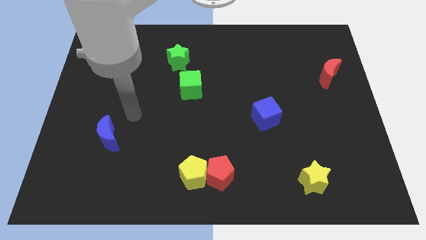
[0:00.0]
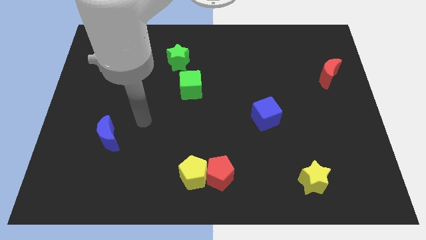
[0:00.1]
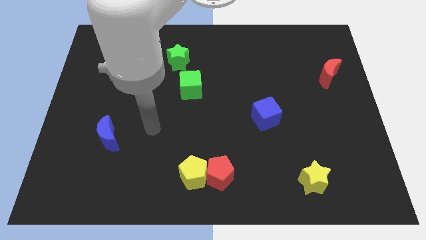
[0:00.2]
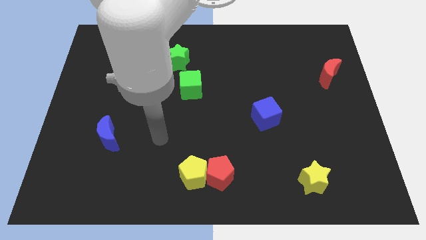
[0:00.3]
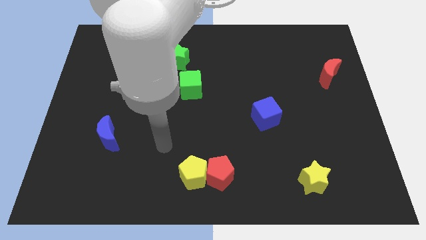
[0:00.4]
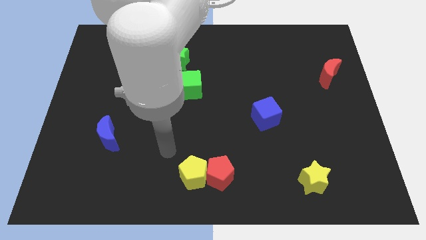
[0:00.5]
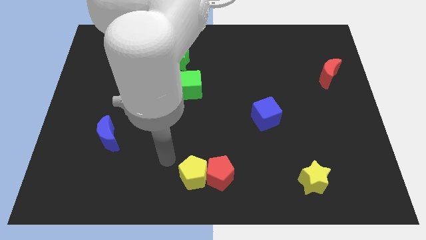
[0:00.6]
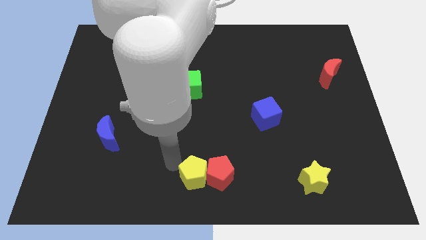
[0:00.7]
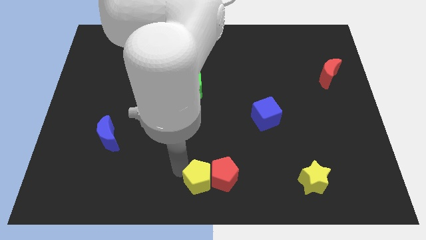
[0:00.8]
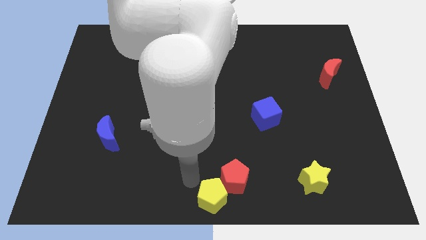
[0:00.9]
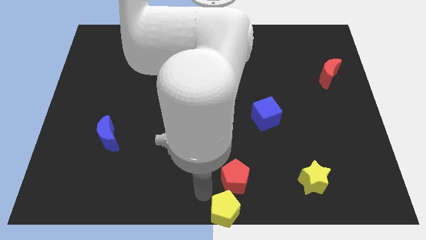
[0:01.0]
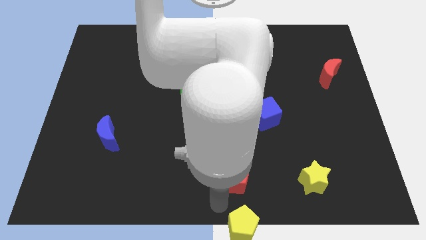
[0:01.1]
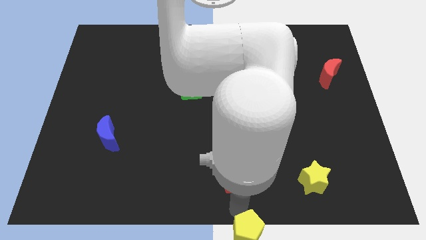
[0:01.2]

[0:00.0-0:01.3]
separate the red pentagon from the yellow pentagon

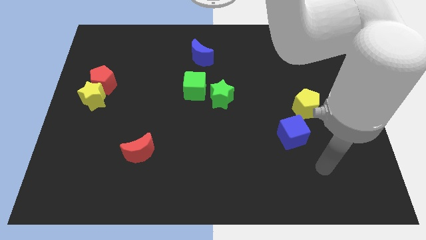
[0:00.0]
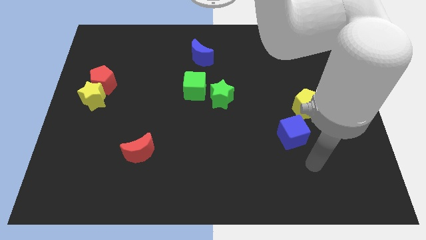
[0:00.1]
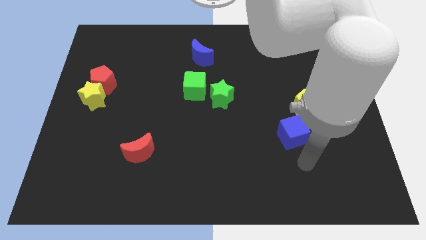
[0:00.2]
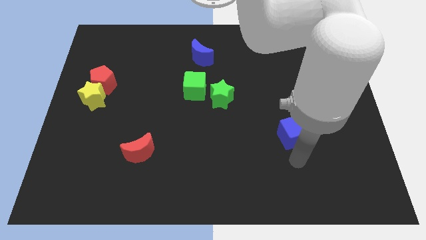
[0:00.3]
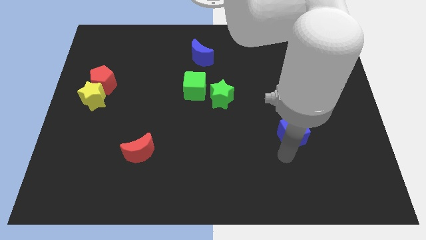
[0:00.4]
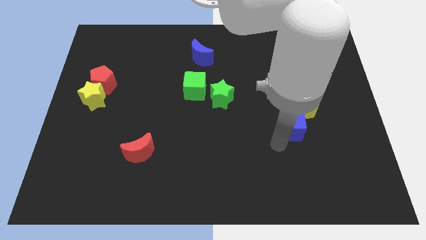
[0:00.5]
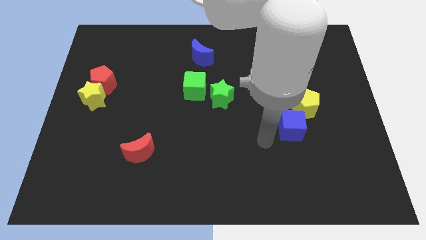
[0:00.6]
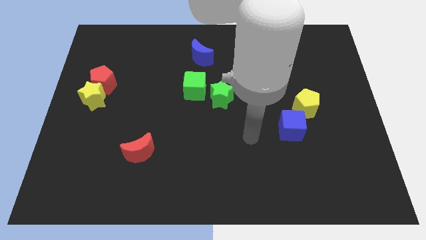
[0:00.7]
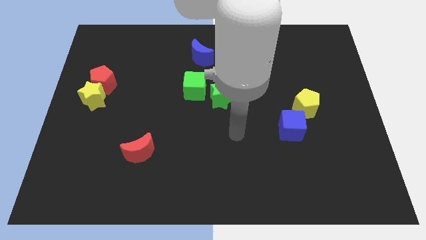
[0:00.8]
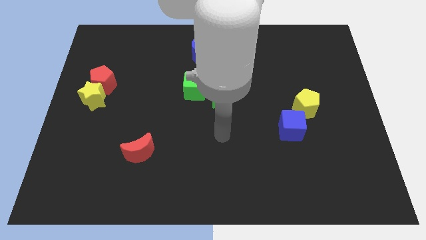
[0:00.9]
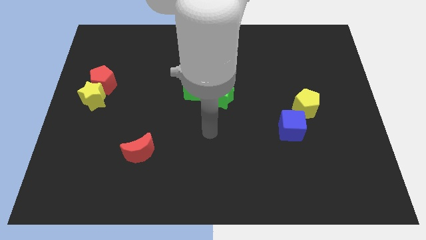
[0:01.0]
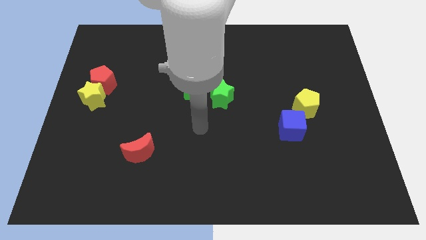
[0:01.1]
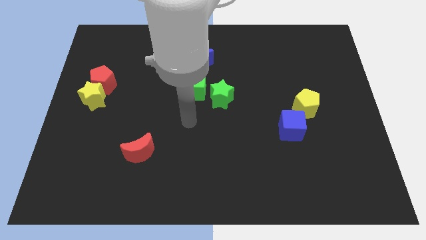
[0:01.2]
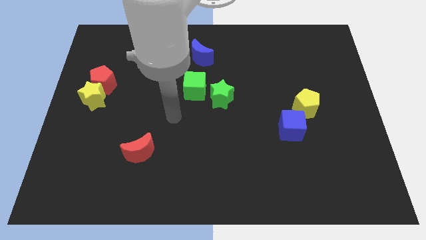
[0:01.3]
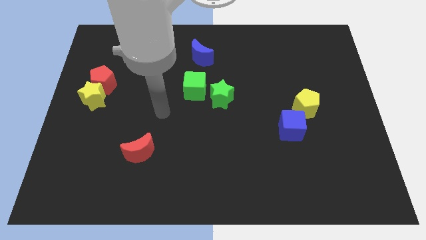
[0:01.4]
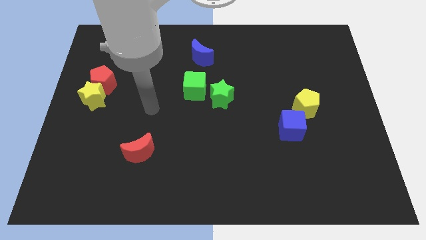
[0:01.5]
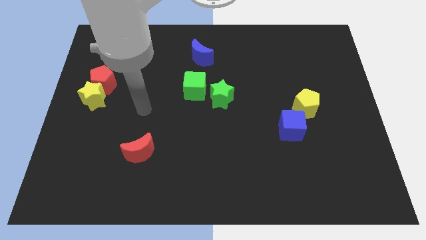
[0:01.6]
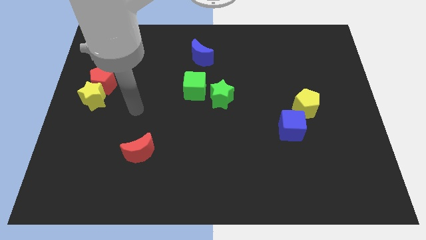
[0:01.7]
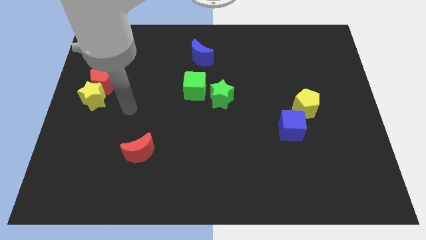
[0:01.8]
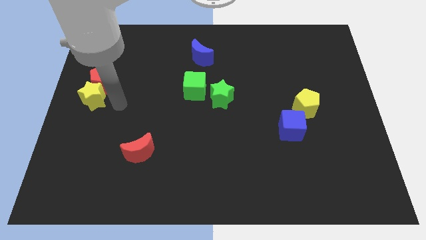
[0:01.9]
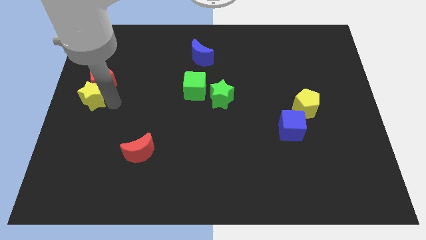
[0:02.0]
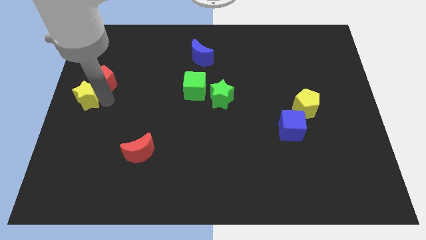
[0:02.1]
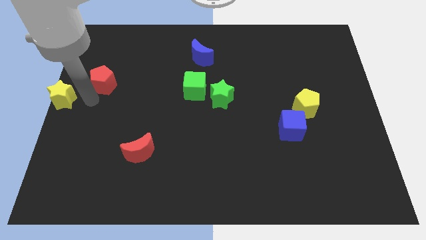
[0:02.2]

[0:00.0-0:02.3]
move the red pentagon away from the yellow star

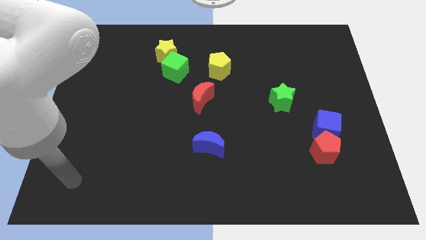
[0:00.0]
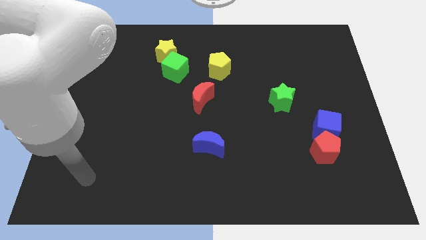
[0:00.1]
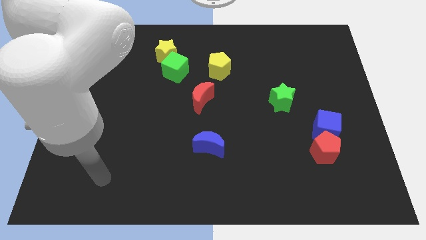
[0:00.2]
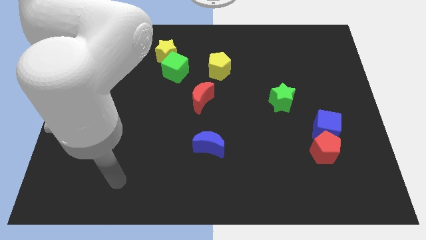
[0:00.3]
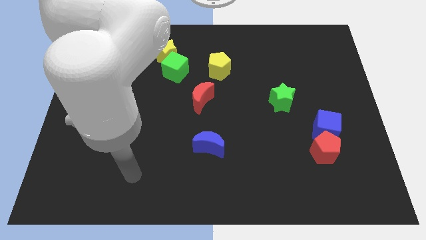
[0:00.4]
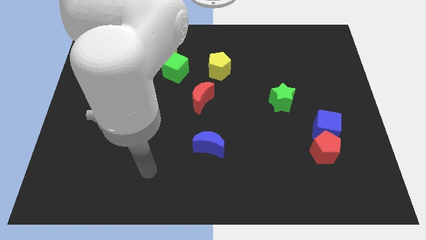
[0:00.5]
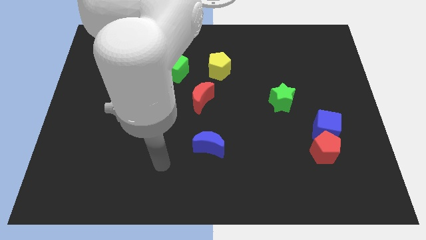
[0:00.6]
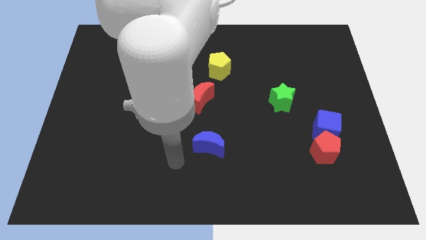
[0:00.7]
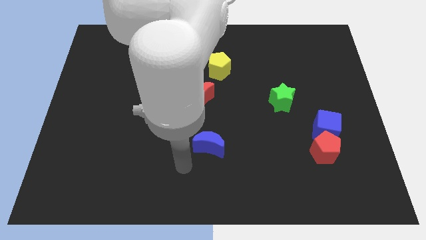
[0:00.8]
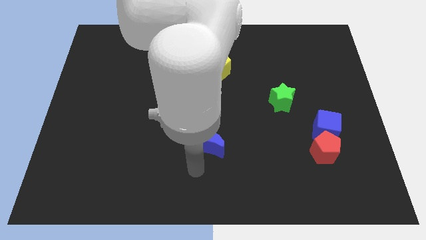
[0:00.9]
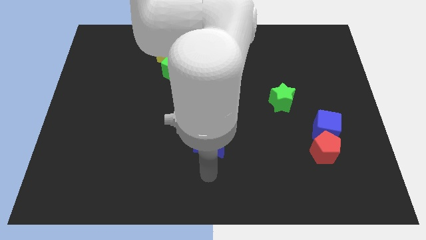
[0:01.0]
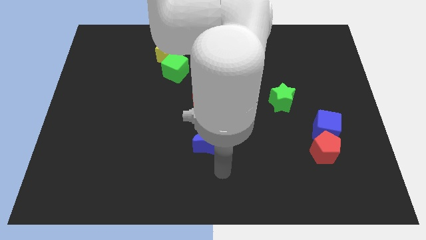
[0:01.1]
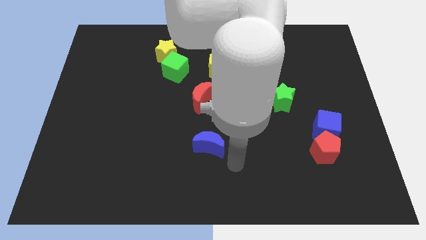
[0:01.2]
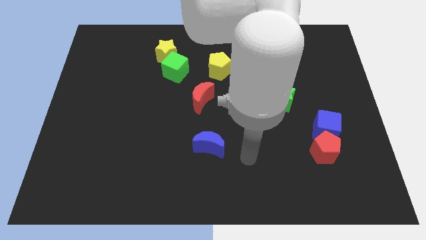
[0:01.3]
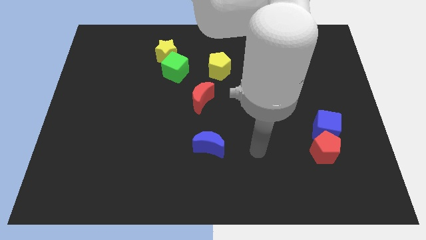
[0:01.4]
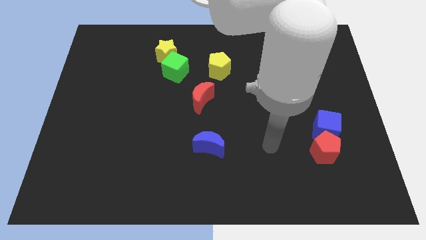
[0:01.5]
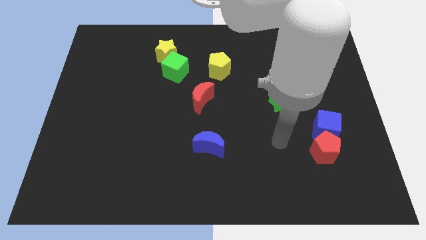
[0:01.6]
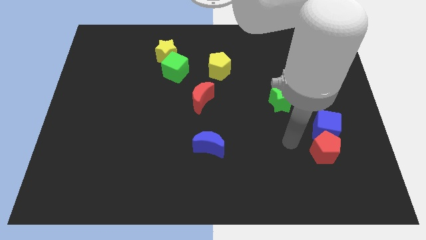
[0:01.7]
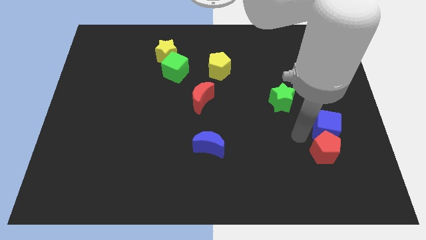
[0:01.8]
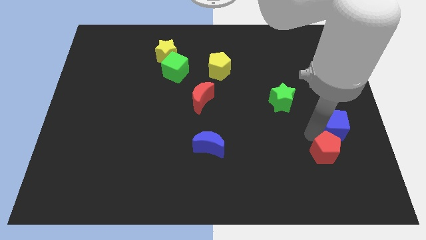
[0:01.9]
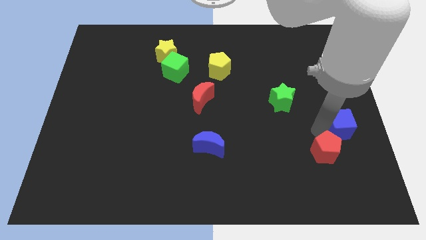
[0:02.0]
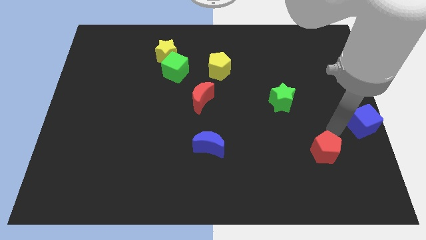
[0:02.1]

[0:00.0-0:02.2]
pull the red pentagon apart from the blue cube

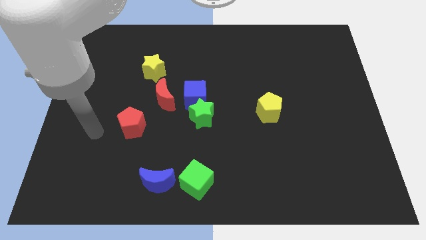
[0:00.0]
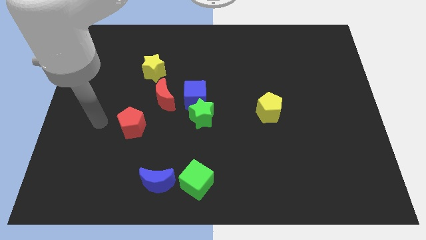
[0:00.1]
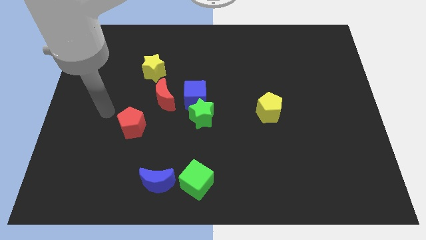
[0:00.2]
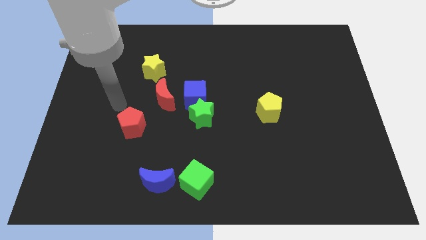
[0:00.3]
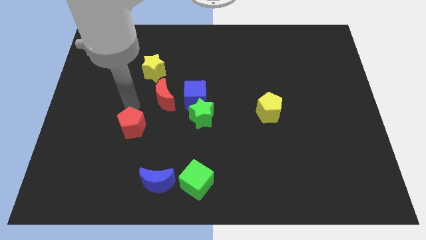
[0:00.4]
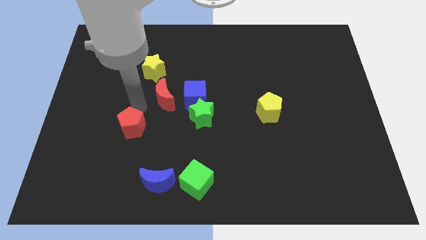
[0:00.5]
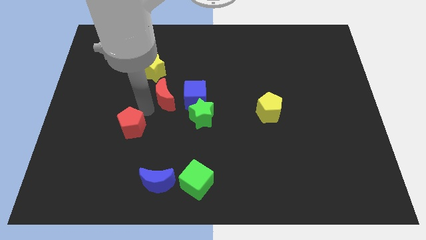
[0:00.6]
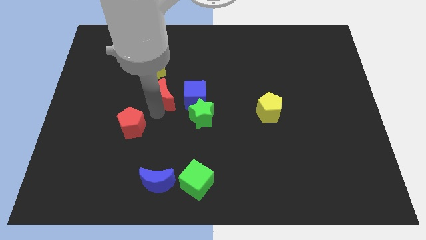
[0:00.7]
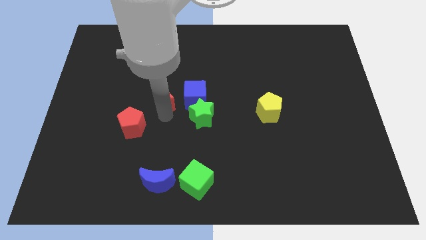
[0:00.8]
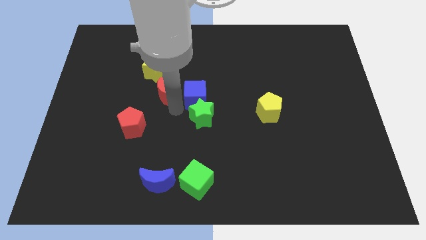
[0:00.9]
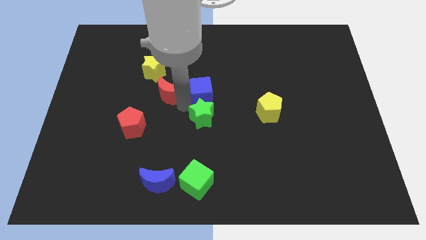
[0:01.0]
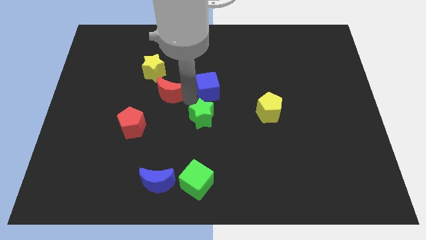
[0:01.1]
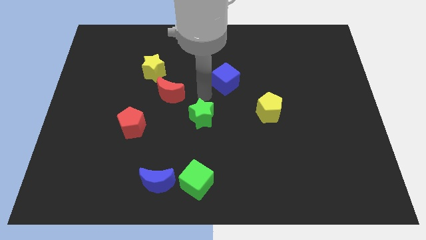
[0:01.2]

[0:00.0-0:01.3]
pull the green star apart from the blue cube

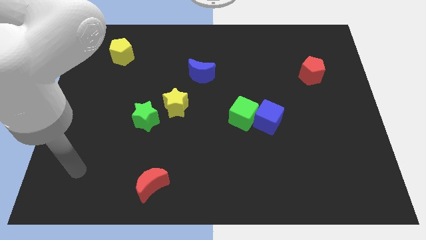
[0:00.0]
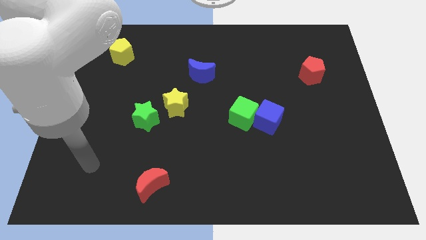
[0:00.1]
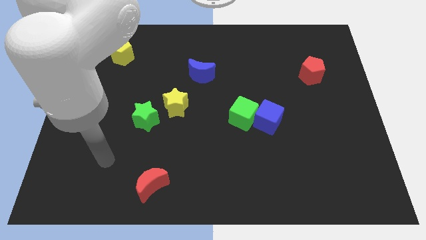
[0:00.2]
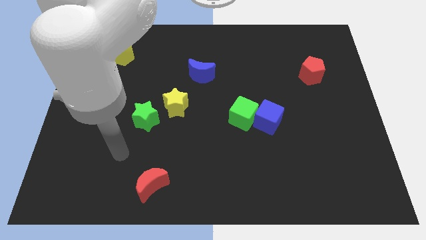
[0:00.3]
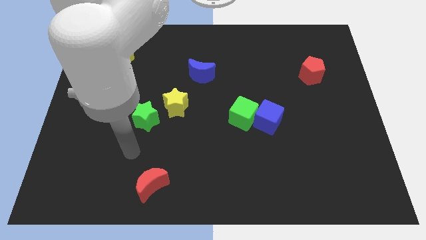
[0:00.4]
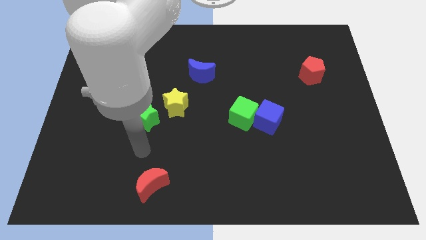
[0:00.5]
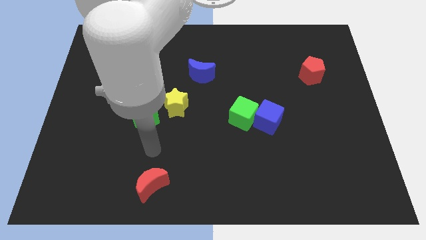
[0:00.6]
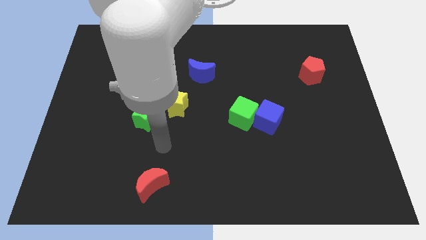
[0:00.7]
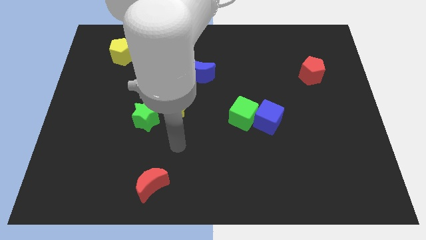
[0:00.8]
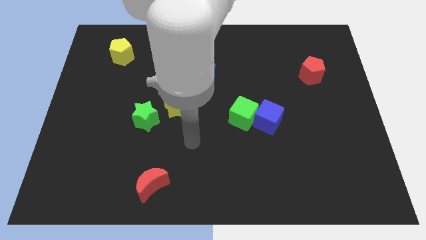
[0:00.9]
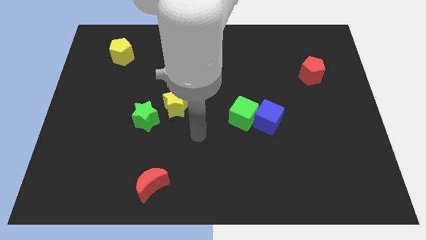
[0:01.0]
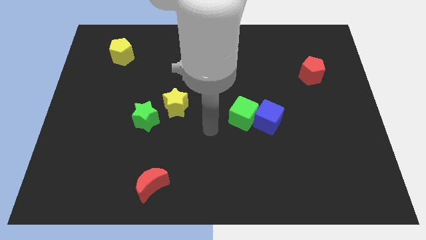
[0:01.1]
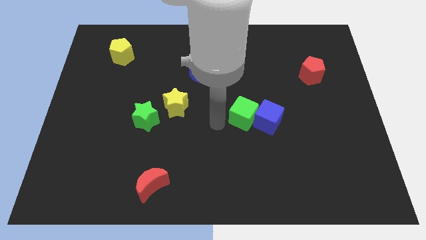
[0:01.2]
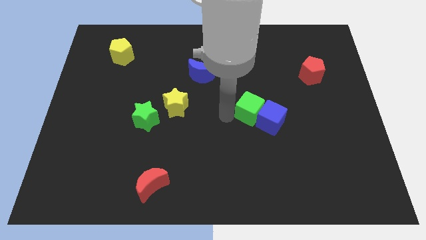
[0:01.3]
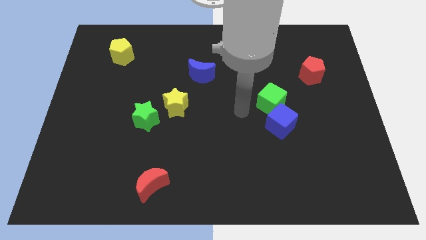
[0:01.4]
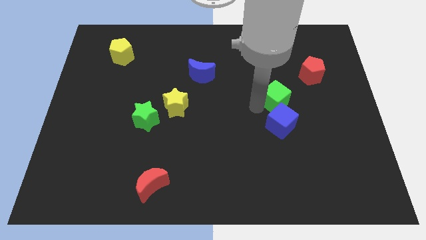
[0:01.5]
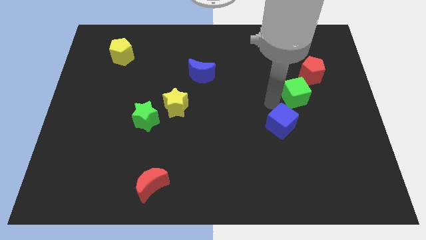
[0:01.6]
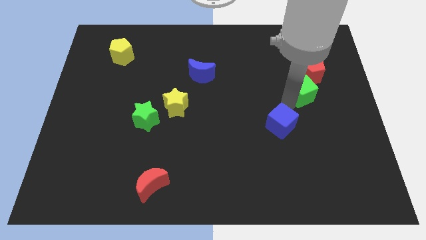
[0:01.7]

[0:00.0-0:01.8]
pull the blue cube apart from the green cube

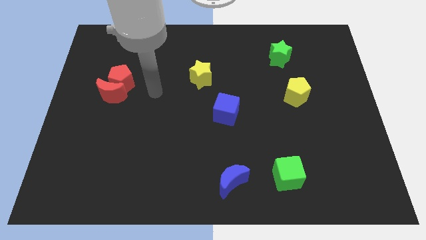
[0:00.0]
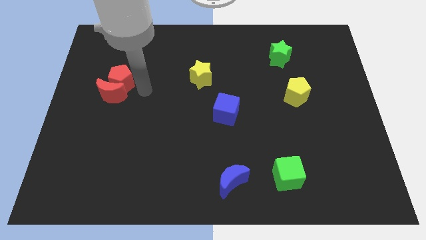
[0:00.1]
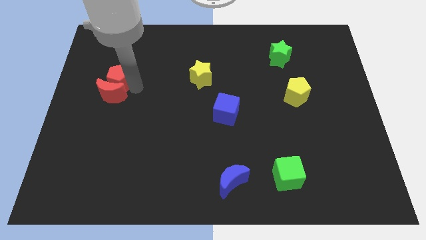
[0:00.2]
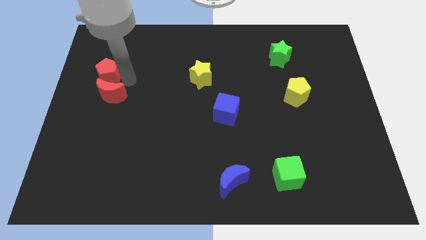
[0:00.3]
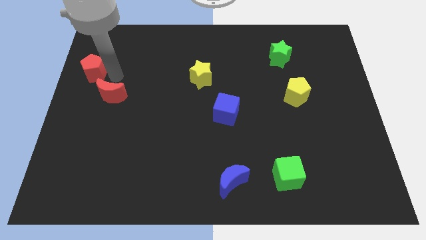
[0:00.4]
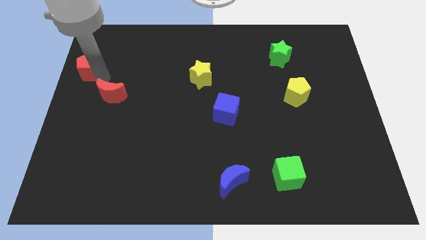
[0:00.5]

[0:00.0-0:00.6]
pull the red moon apart from the red pentagon
